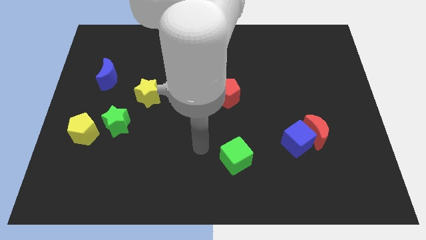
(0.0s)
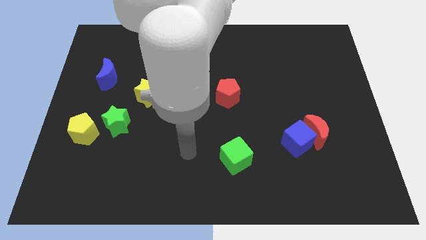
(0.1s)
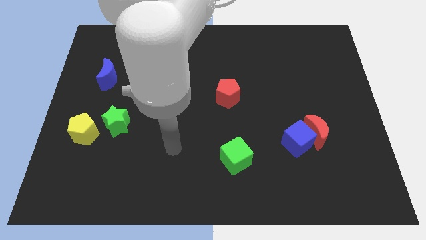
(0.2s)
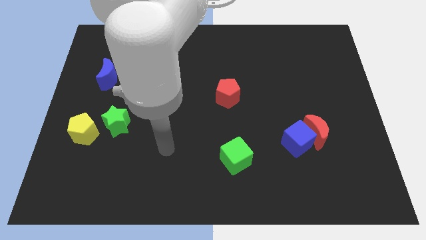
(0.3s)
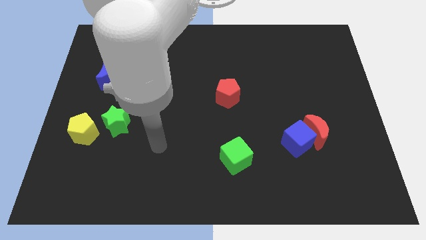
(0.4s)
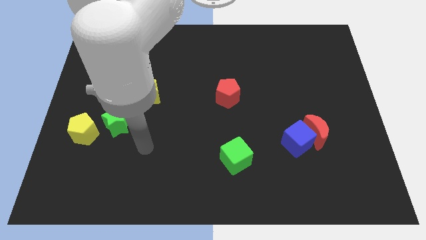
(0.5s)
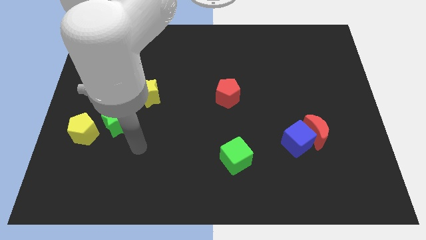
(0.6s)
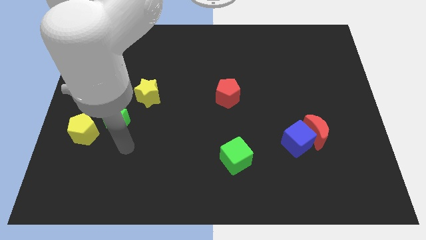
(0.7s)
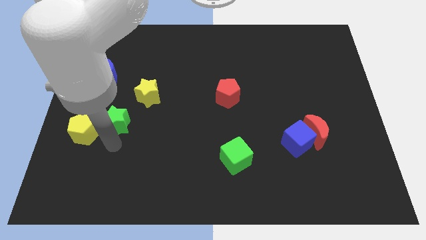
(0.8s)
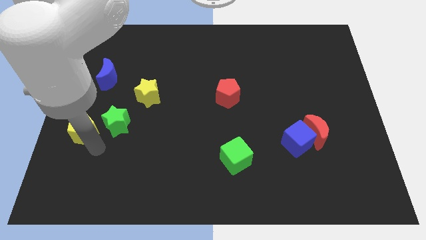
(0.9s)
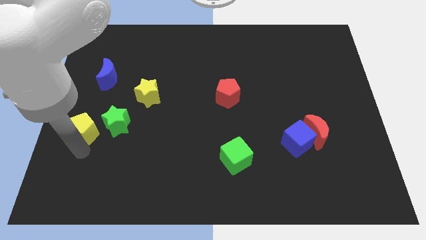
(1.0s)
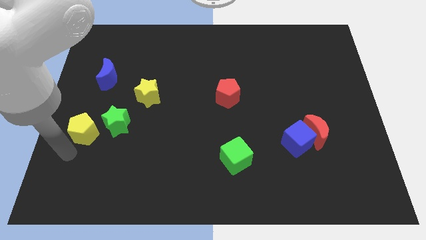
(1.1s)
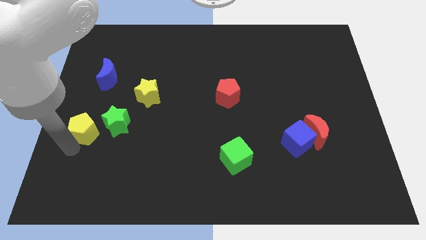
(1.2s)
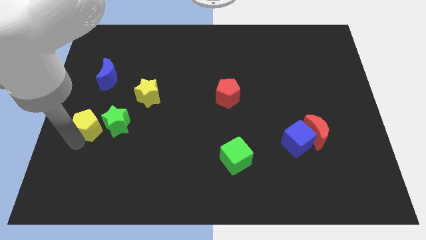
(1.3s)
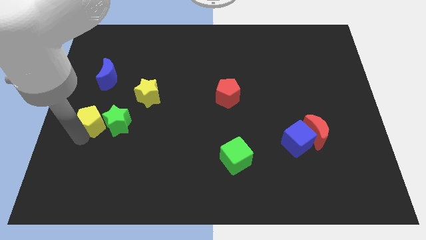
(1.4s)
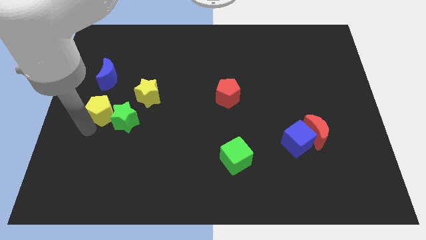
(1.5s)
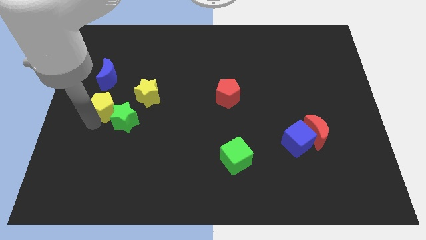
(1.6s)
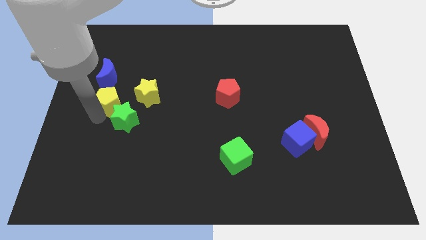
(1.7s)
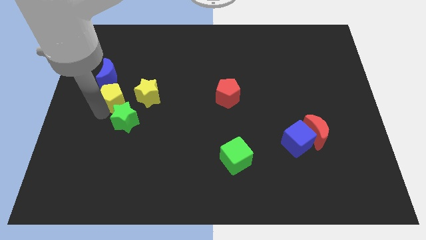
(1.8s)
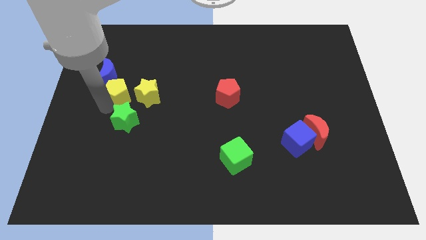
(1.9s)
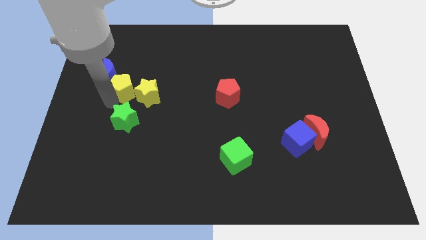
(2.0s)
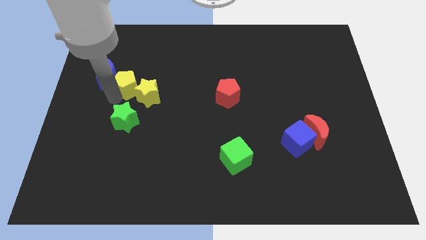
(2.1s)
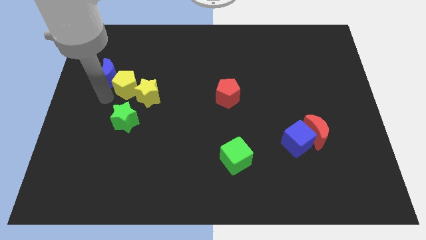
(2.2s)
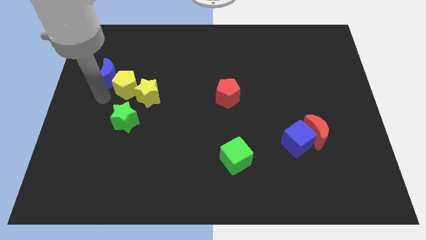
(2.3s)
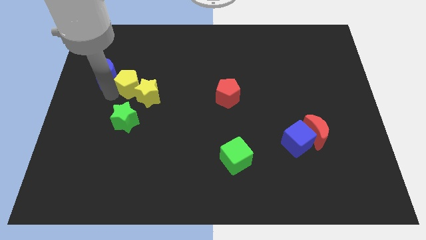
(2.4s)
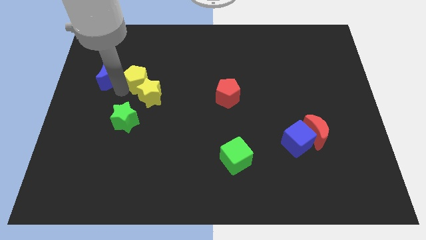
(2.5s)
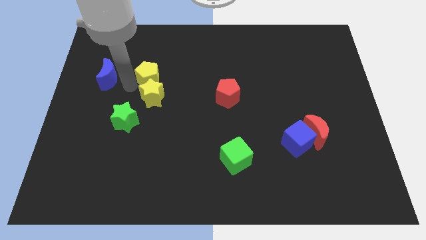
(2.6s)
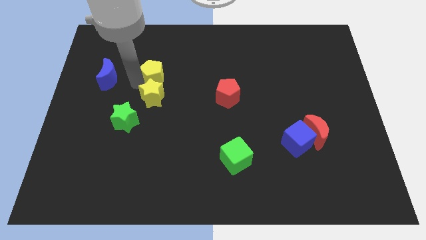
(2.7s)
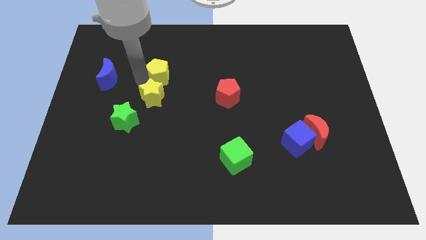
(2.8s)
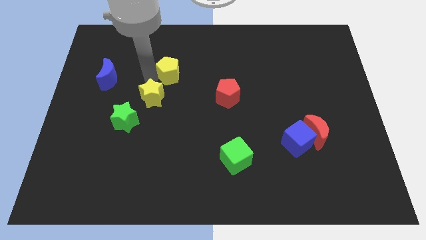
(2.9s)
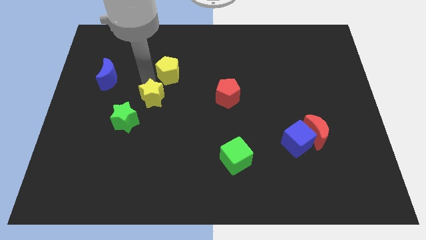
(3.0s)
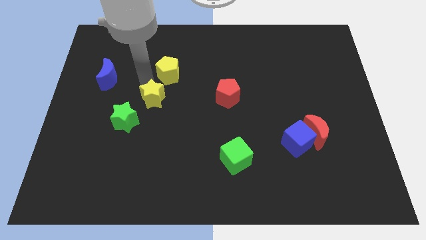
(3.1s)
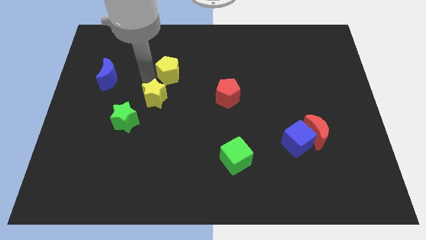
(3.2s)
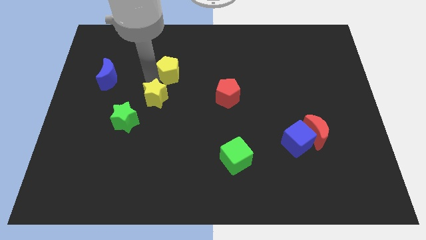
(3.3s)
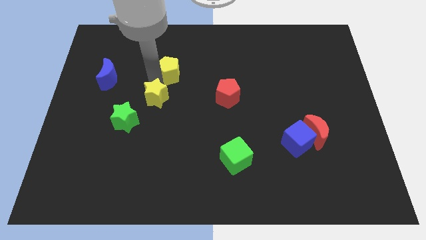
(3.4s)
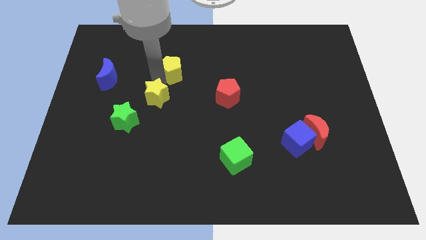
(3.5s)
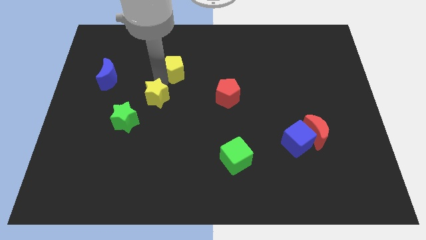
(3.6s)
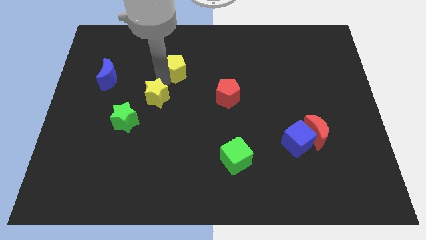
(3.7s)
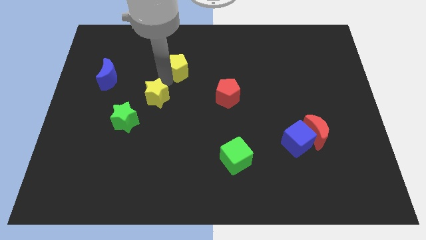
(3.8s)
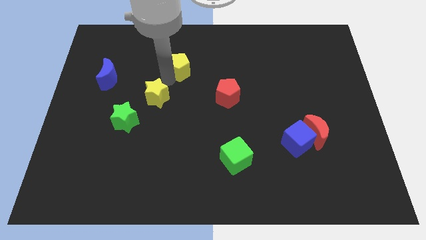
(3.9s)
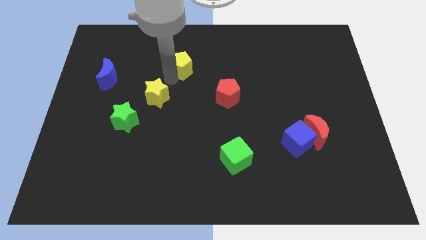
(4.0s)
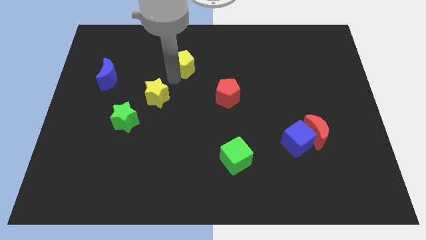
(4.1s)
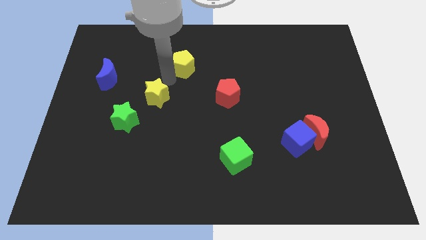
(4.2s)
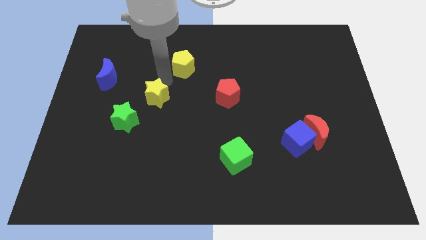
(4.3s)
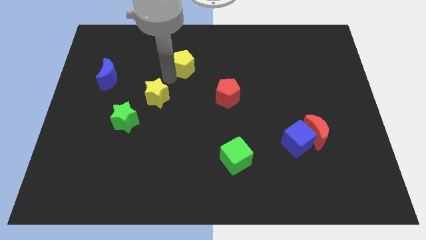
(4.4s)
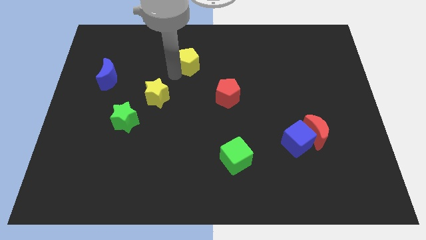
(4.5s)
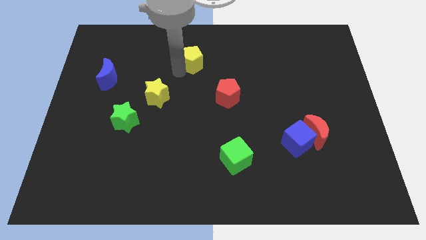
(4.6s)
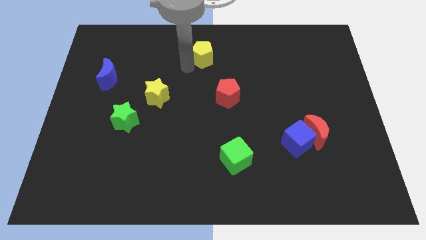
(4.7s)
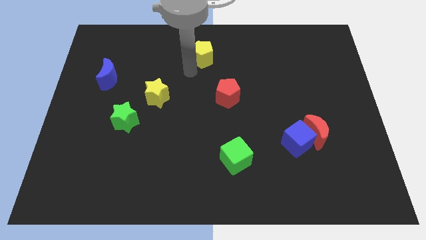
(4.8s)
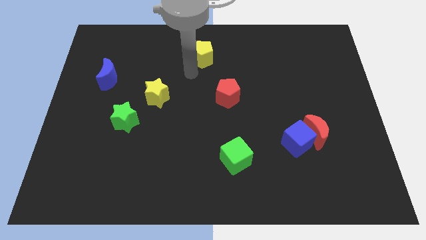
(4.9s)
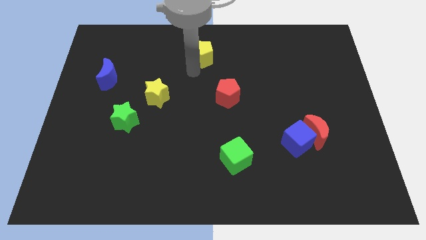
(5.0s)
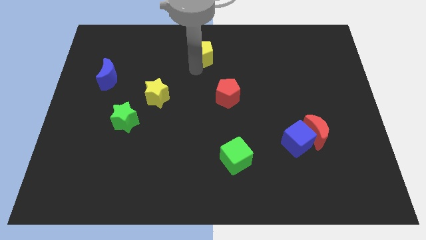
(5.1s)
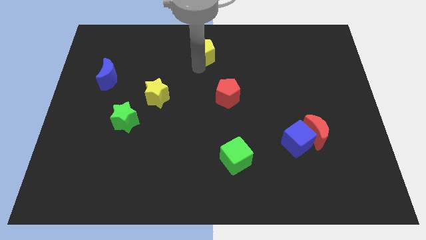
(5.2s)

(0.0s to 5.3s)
push the yellow pentagon to the top

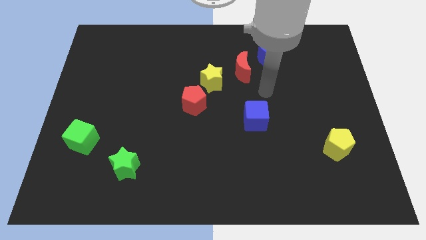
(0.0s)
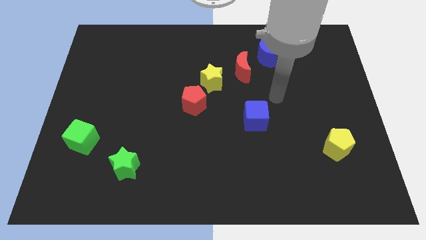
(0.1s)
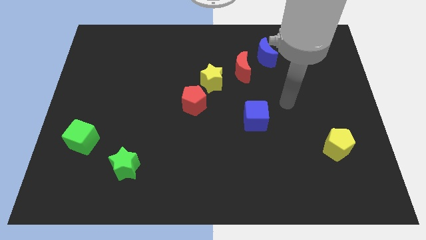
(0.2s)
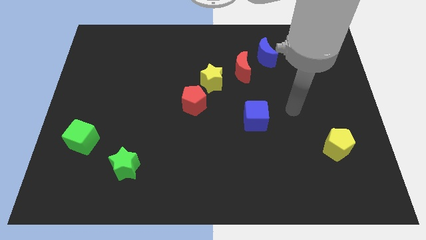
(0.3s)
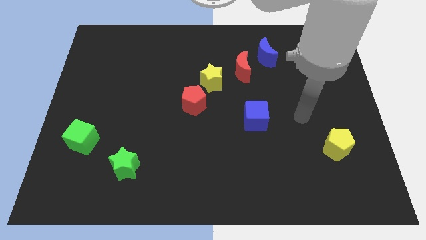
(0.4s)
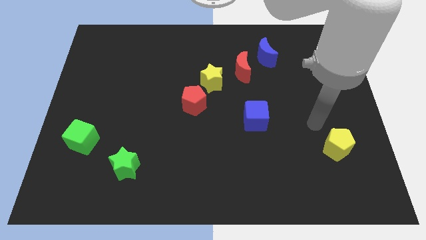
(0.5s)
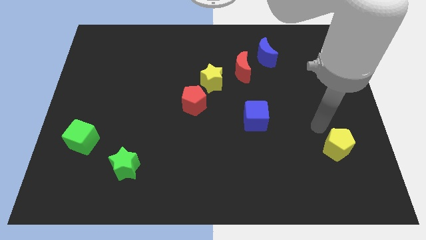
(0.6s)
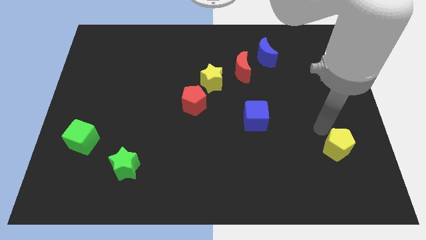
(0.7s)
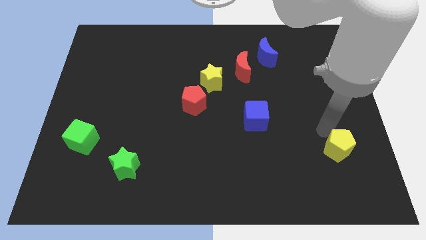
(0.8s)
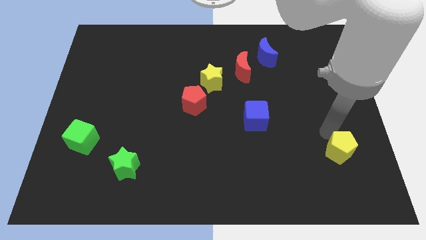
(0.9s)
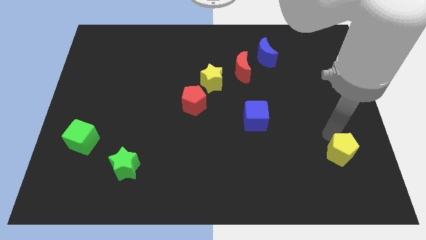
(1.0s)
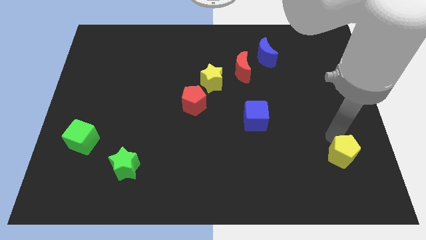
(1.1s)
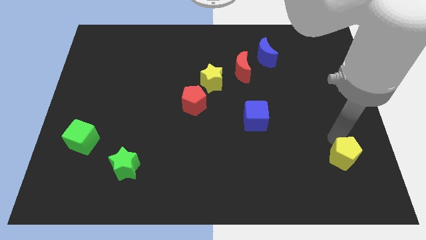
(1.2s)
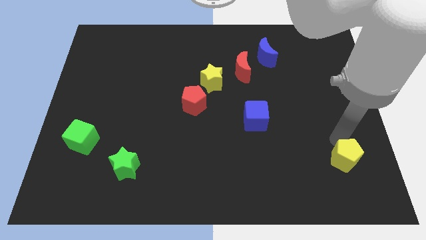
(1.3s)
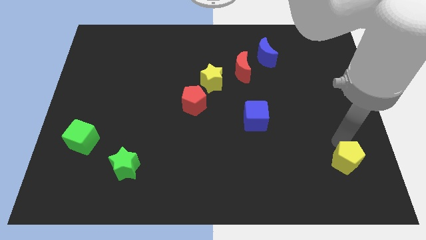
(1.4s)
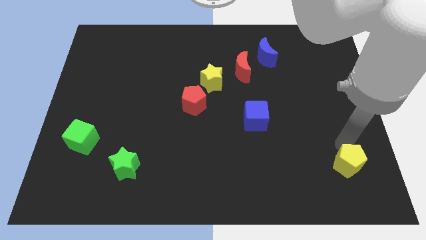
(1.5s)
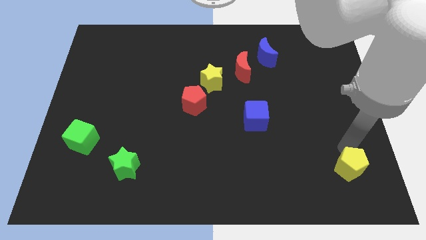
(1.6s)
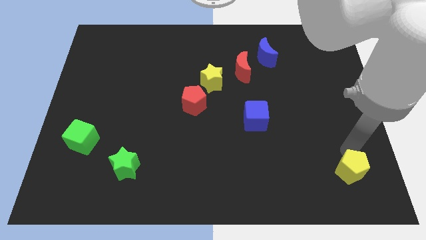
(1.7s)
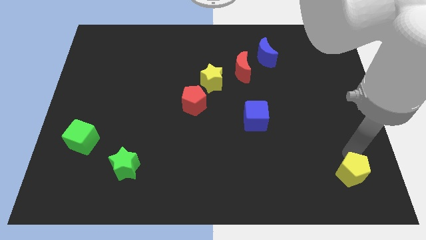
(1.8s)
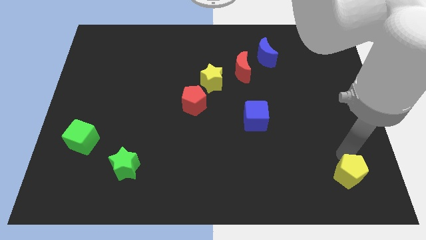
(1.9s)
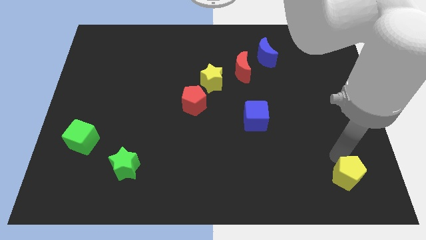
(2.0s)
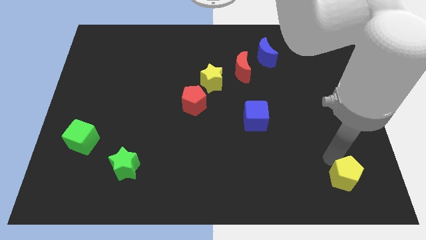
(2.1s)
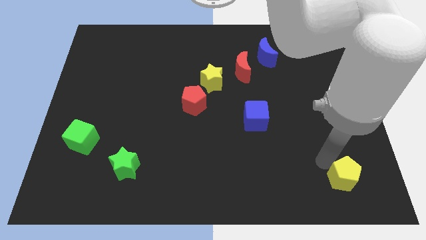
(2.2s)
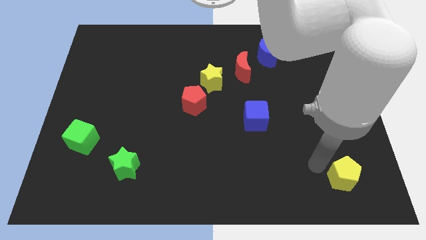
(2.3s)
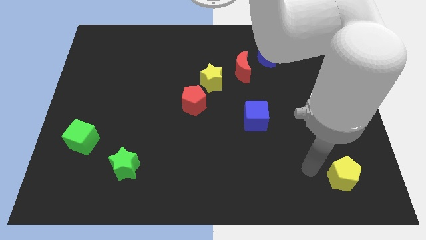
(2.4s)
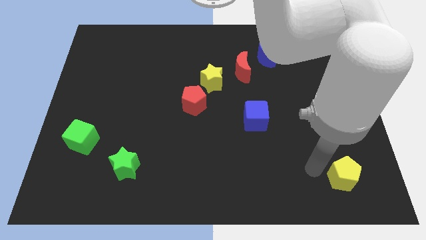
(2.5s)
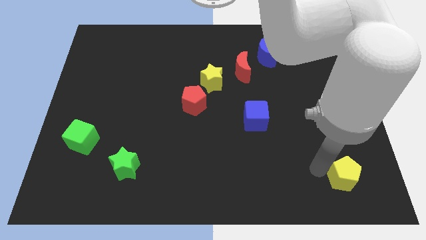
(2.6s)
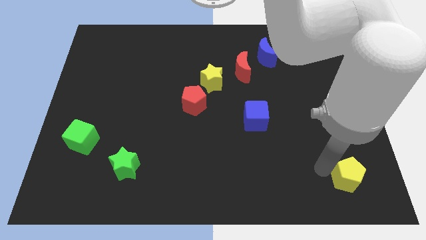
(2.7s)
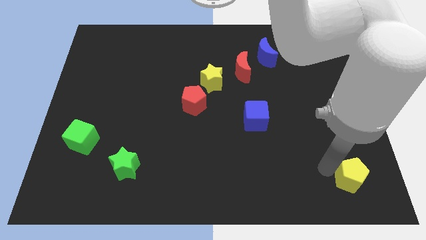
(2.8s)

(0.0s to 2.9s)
put the yellow pentagon to the lower right corner
